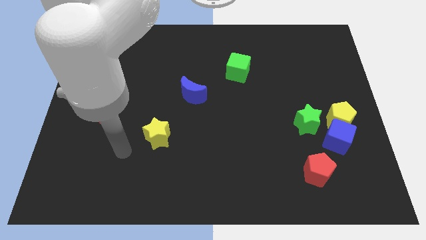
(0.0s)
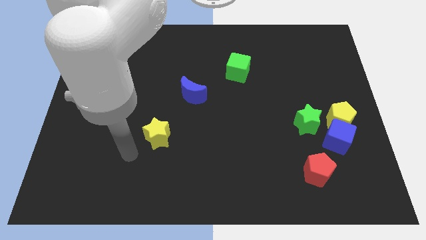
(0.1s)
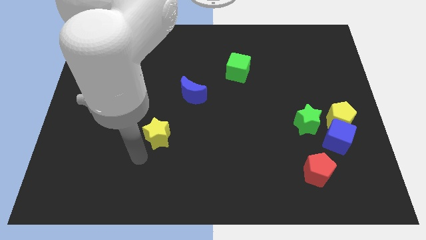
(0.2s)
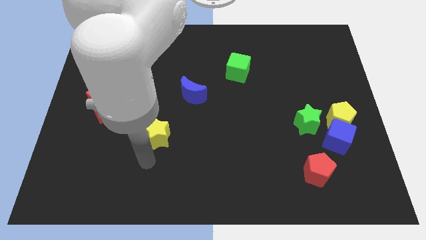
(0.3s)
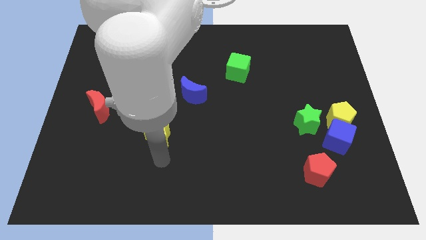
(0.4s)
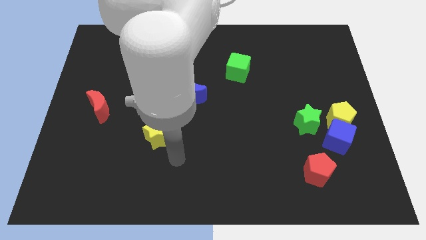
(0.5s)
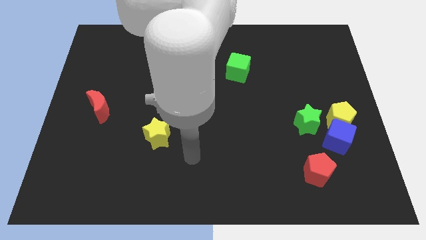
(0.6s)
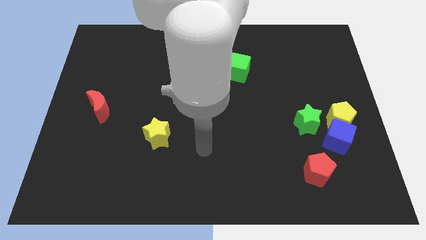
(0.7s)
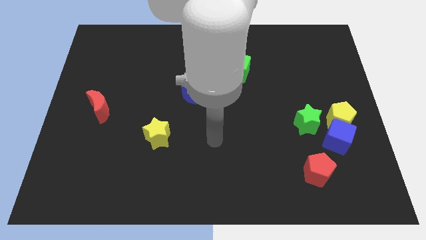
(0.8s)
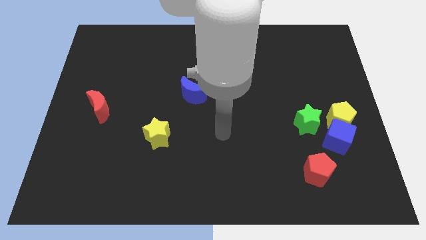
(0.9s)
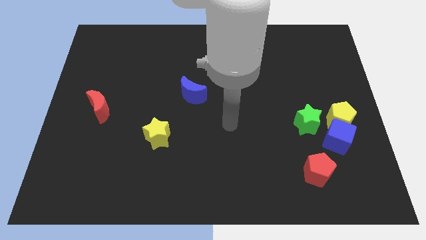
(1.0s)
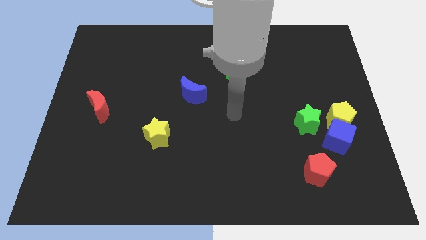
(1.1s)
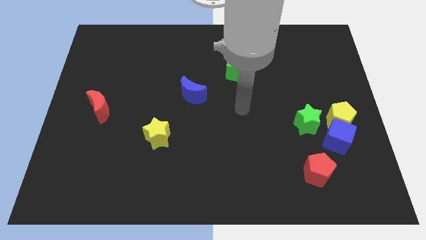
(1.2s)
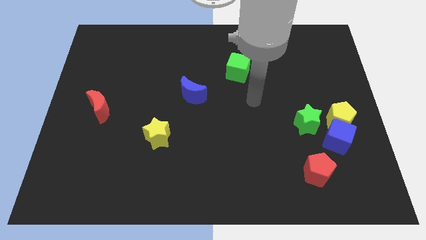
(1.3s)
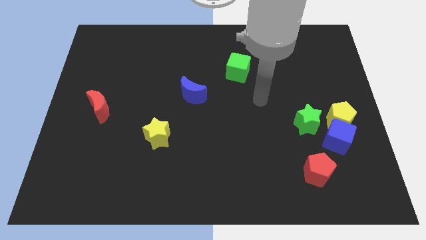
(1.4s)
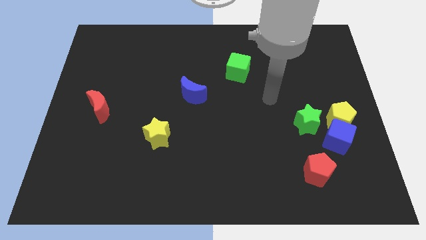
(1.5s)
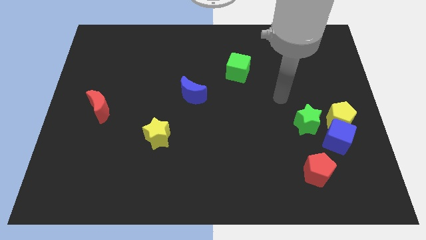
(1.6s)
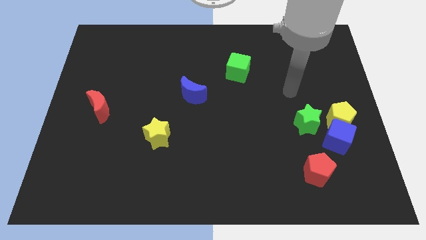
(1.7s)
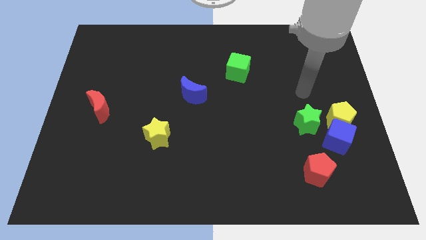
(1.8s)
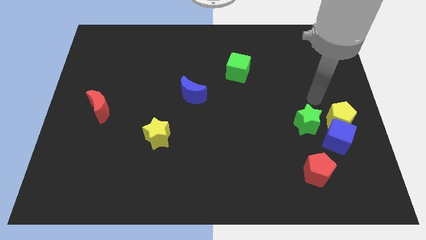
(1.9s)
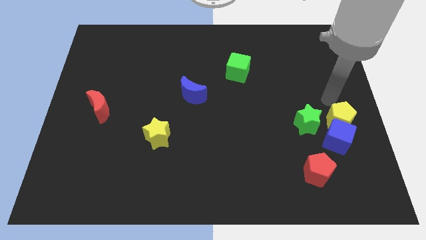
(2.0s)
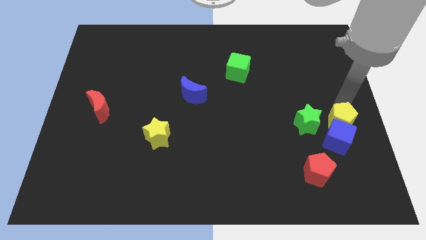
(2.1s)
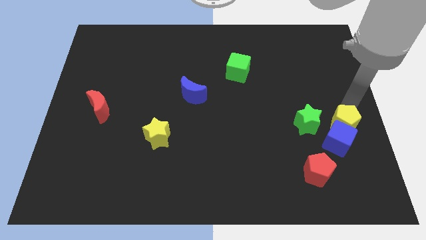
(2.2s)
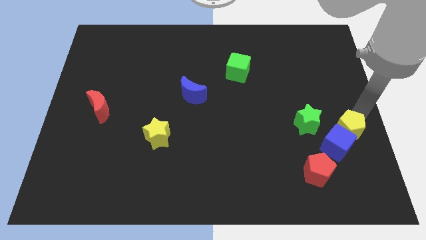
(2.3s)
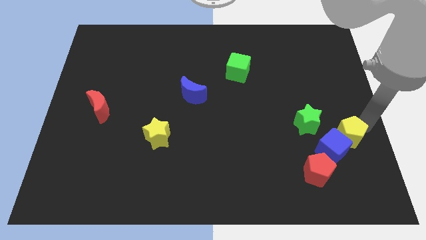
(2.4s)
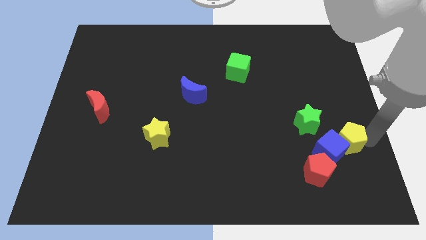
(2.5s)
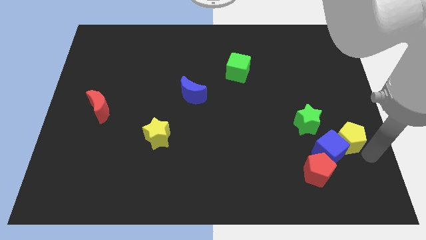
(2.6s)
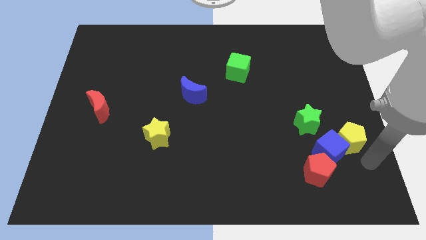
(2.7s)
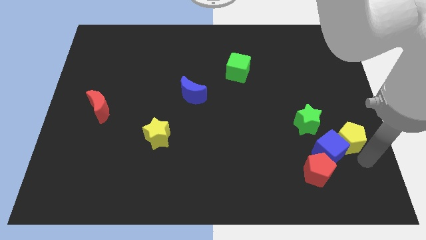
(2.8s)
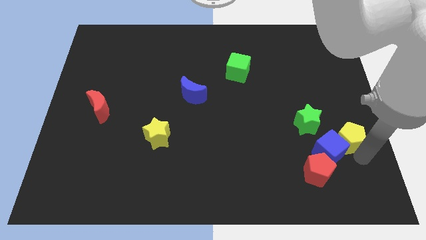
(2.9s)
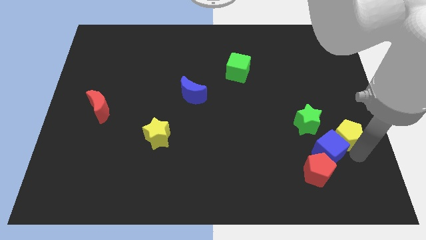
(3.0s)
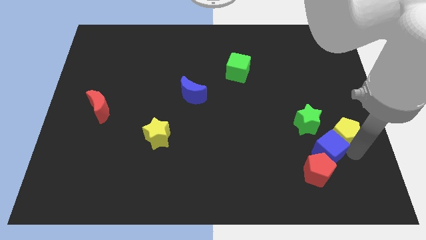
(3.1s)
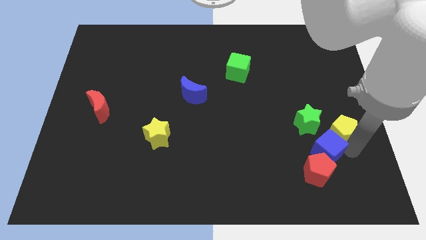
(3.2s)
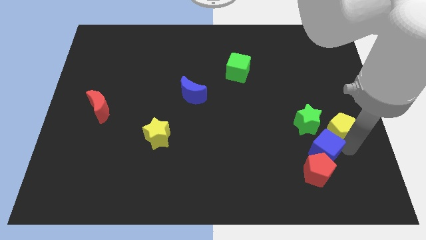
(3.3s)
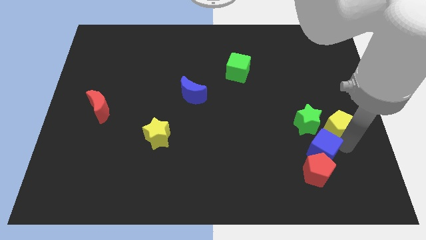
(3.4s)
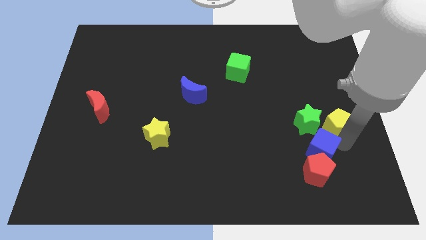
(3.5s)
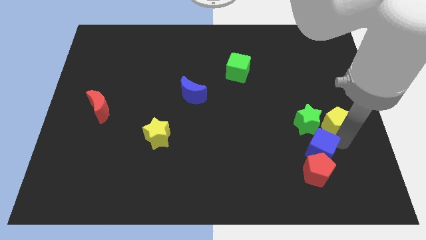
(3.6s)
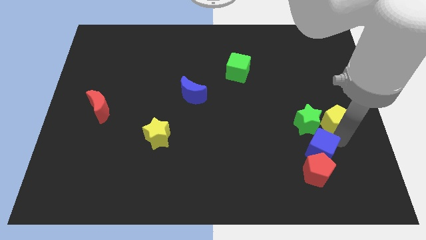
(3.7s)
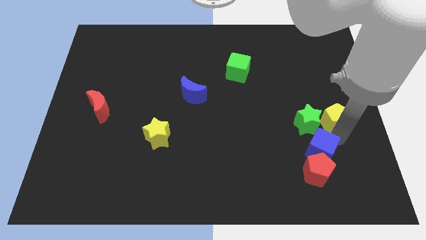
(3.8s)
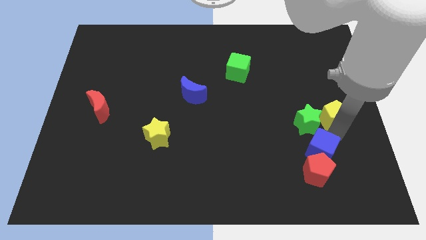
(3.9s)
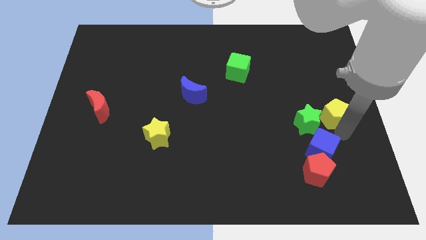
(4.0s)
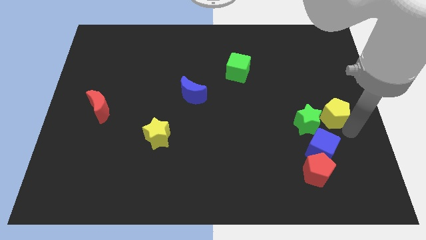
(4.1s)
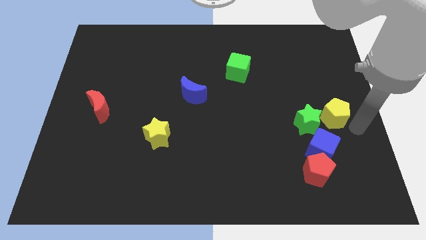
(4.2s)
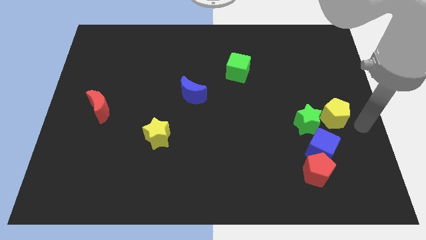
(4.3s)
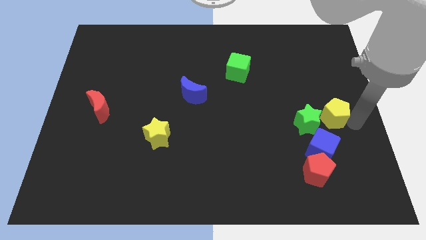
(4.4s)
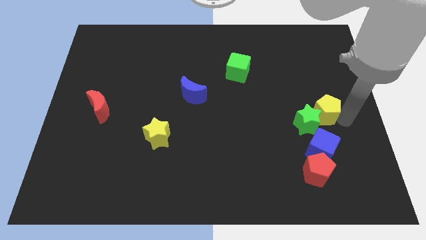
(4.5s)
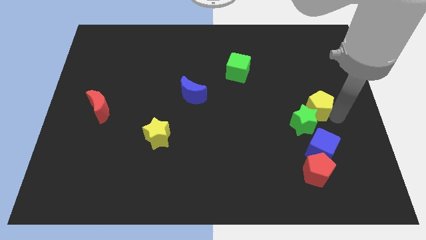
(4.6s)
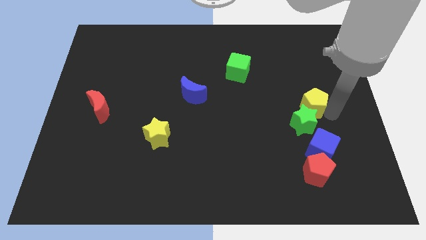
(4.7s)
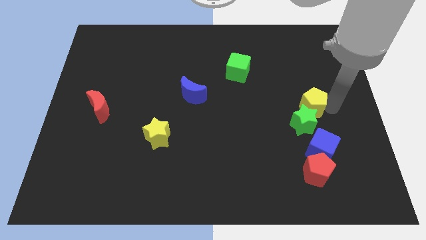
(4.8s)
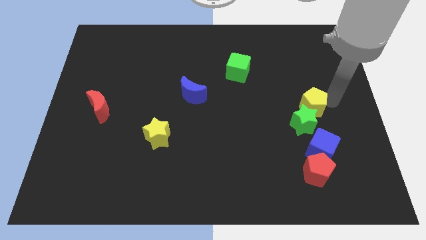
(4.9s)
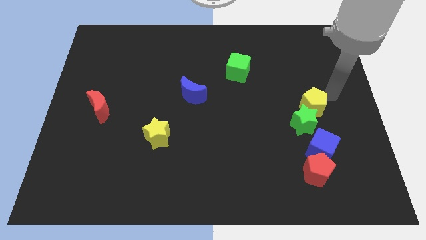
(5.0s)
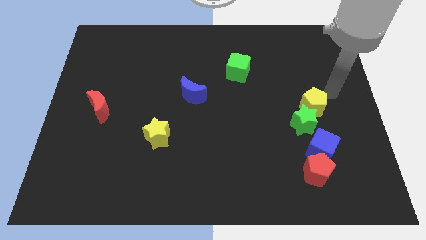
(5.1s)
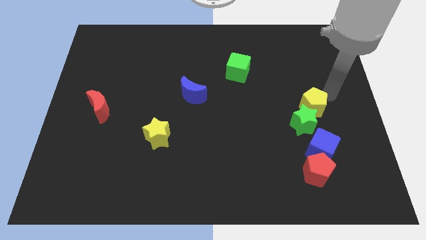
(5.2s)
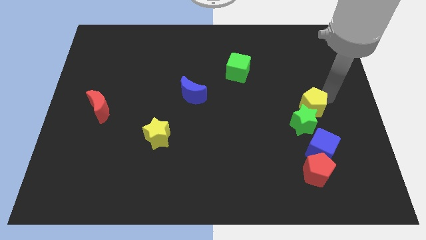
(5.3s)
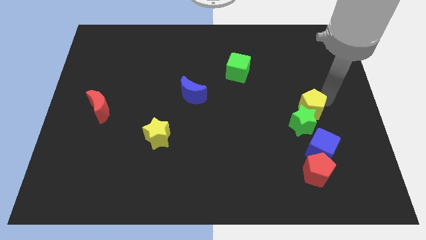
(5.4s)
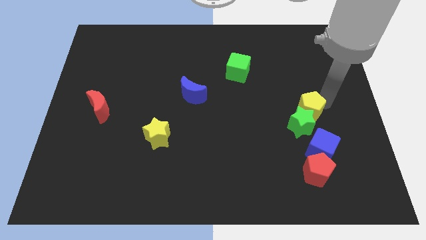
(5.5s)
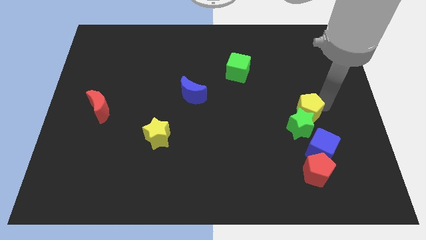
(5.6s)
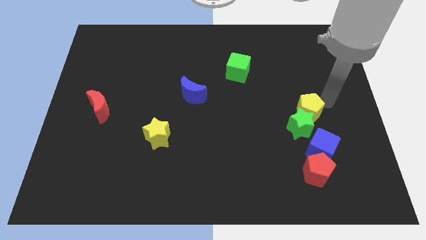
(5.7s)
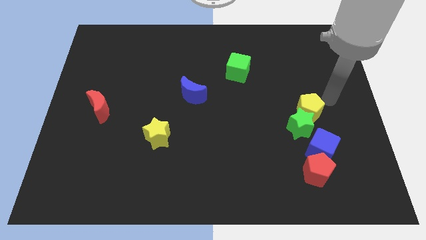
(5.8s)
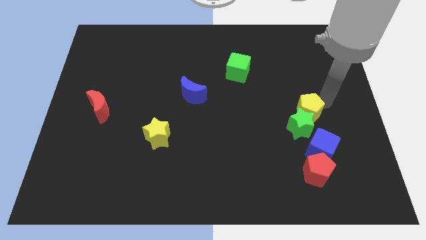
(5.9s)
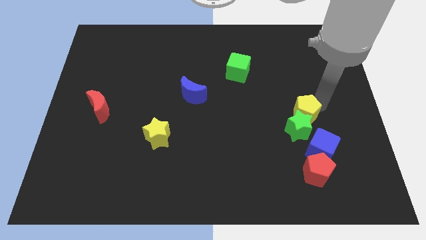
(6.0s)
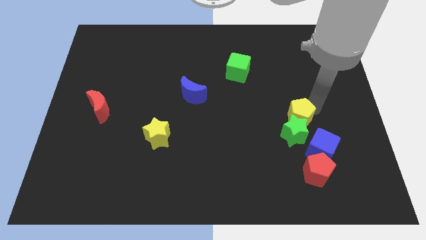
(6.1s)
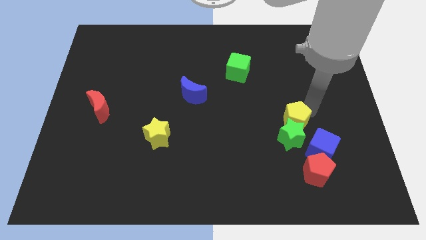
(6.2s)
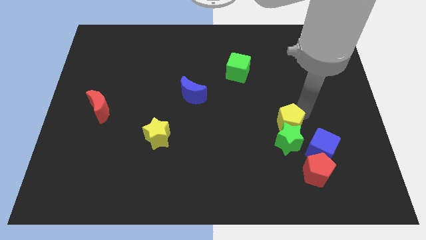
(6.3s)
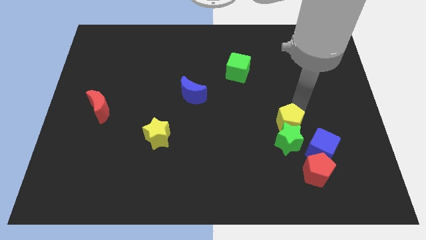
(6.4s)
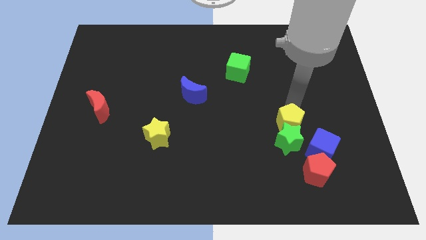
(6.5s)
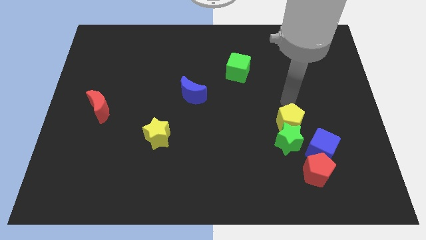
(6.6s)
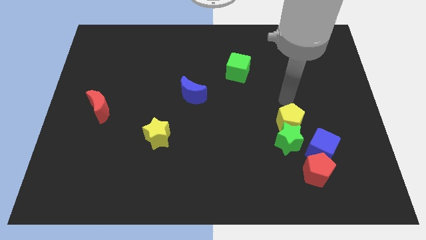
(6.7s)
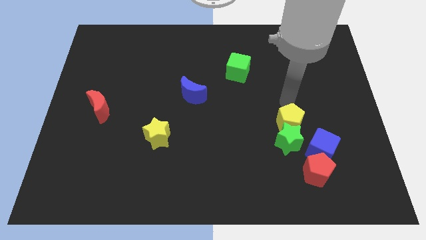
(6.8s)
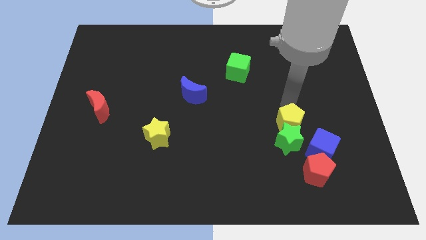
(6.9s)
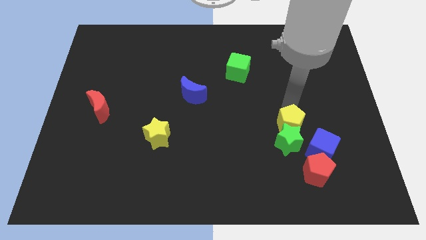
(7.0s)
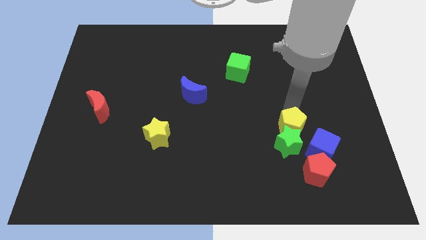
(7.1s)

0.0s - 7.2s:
slide the yellow pentagon down and to the left a little bit

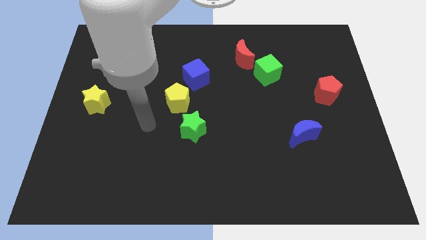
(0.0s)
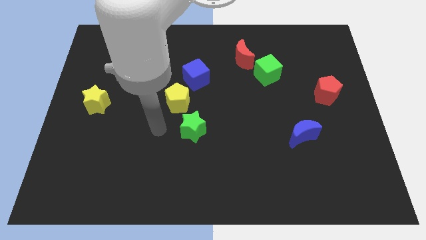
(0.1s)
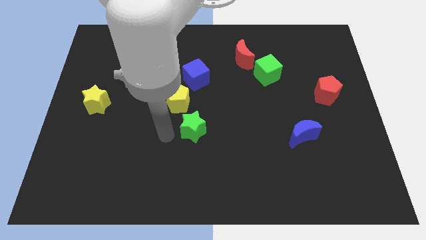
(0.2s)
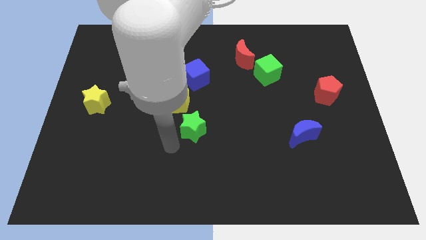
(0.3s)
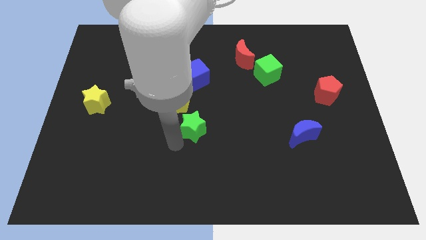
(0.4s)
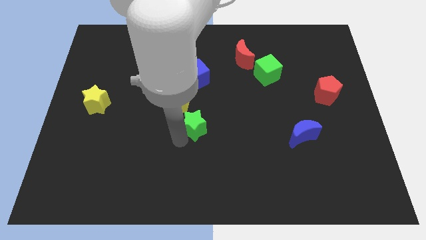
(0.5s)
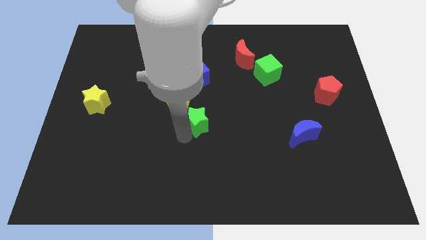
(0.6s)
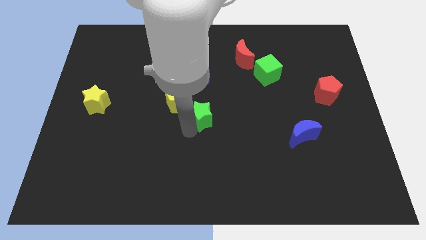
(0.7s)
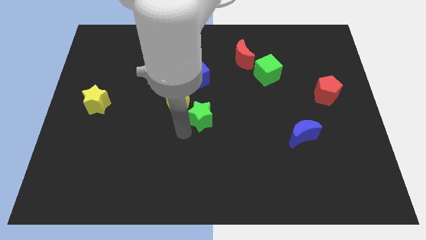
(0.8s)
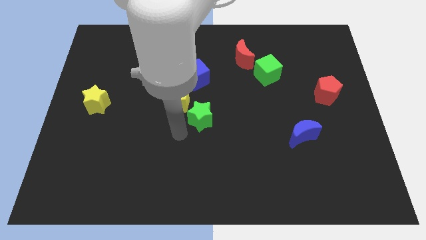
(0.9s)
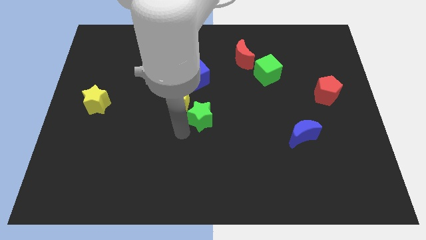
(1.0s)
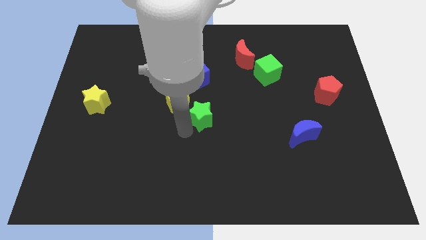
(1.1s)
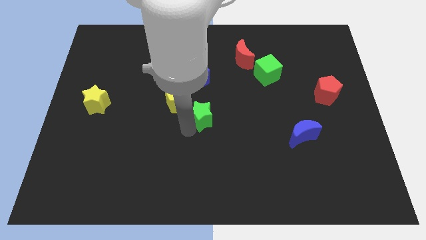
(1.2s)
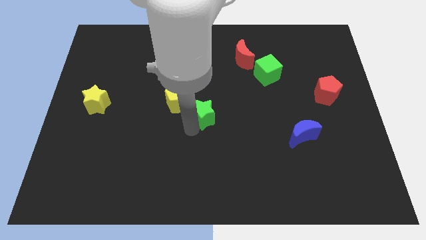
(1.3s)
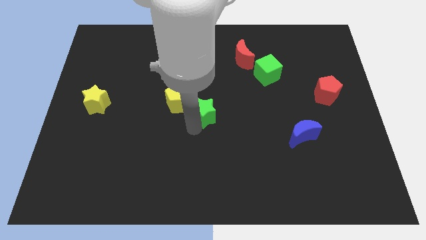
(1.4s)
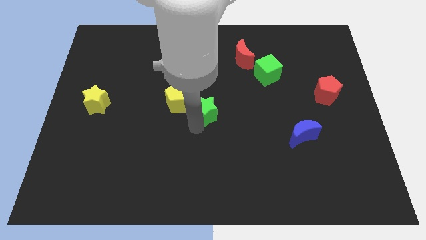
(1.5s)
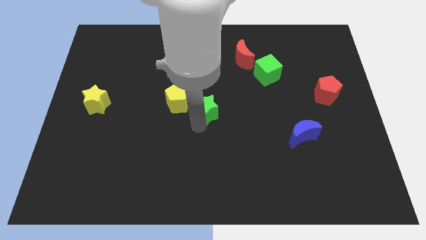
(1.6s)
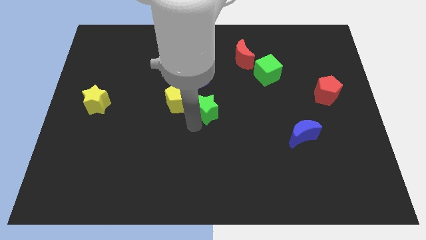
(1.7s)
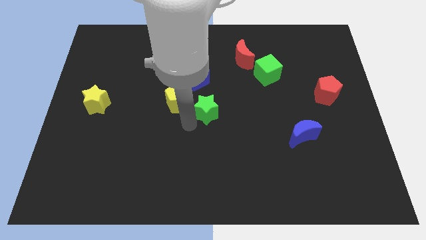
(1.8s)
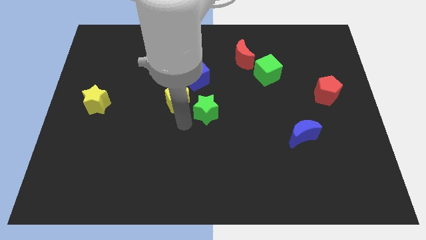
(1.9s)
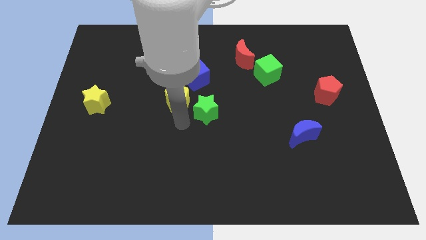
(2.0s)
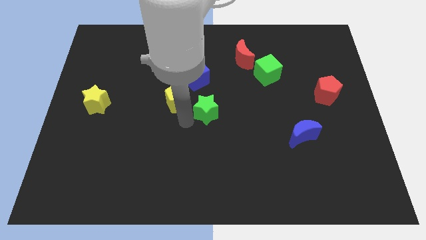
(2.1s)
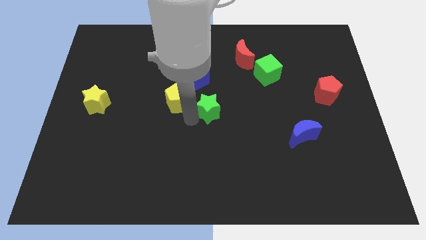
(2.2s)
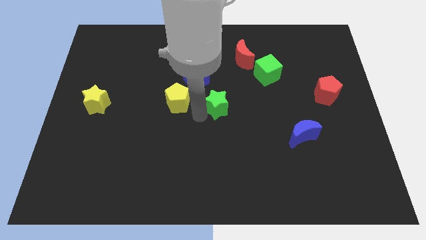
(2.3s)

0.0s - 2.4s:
slightly slide the green star up and then right
